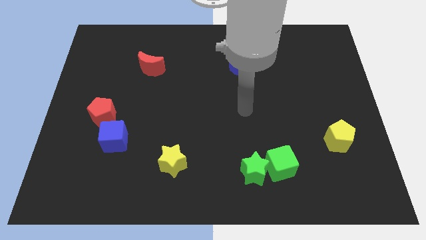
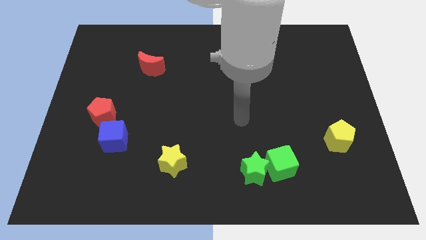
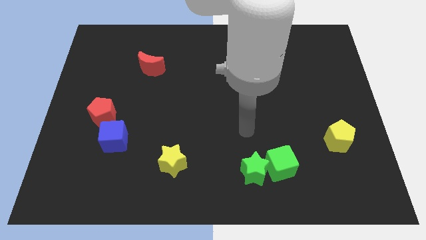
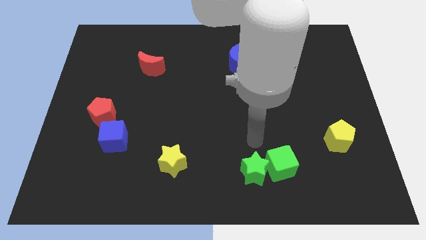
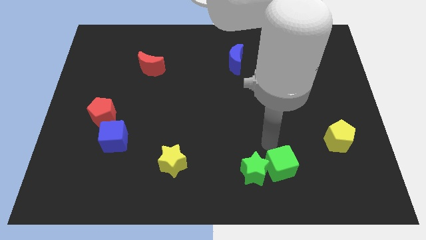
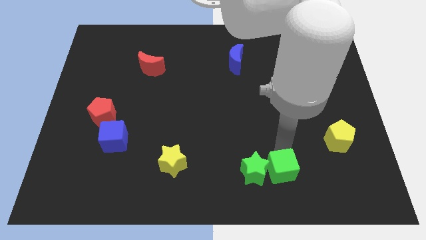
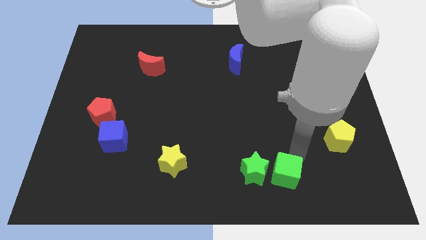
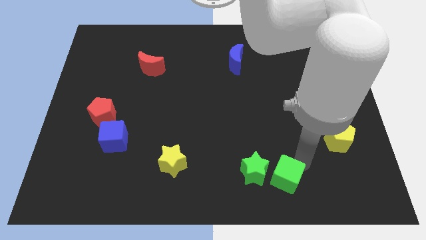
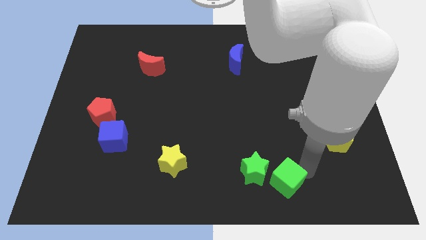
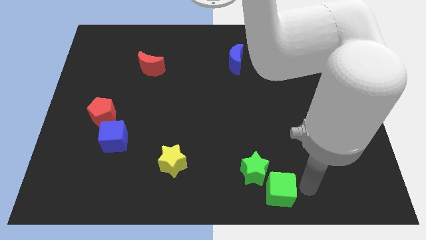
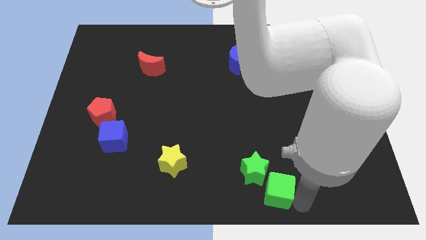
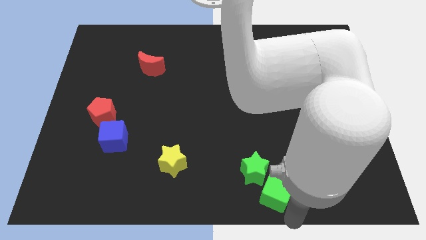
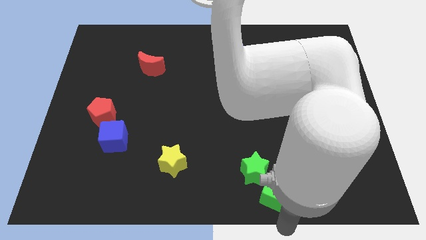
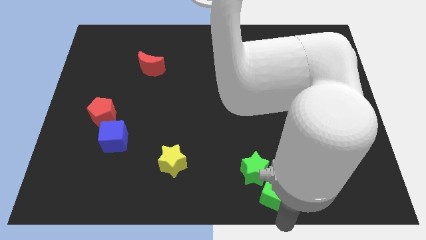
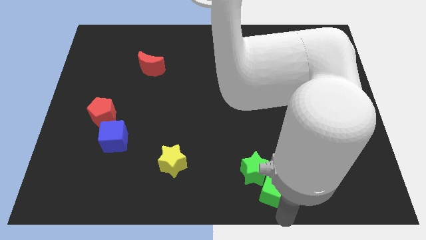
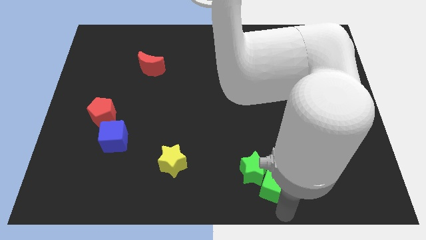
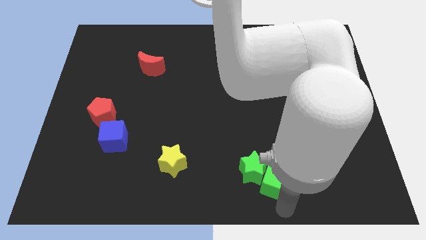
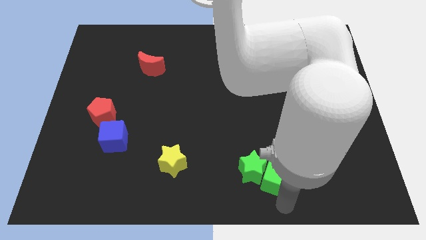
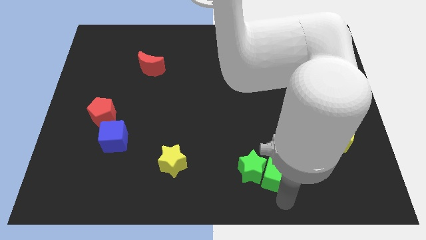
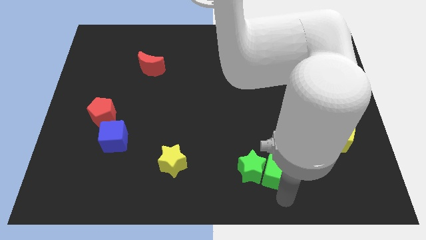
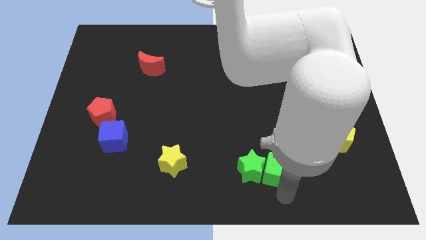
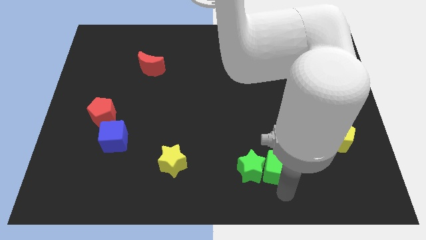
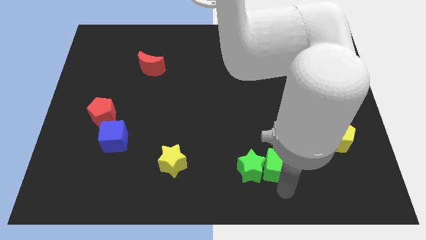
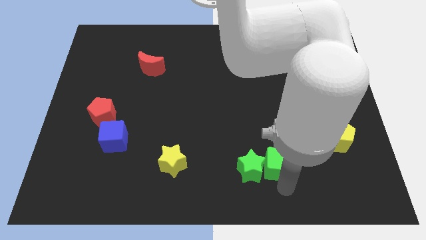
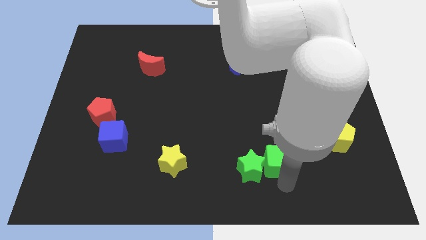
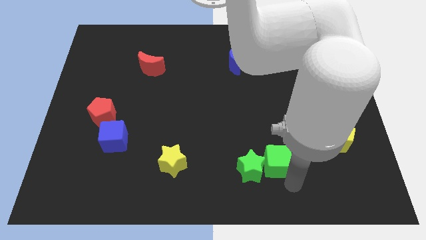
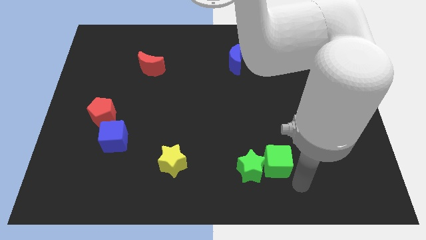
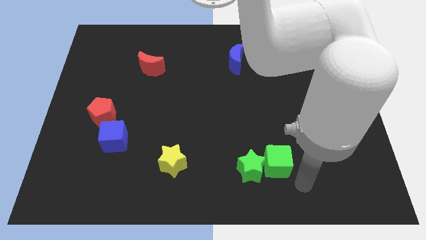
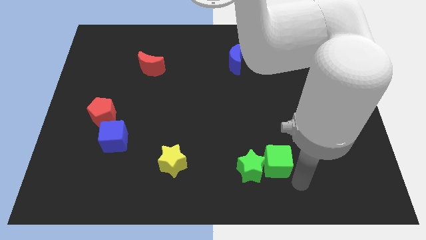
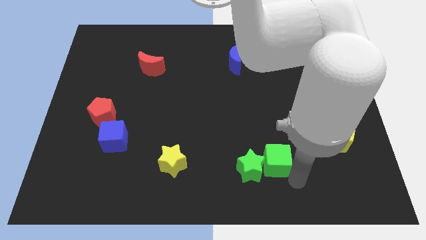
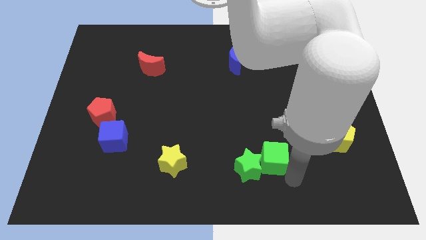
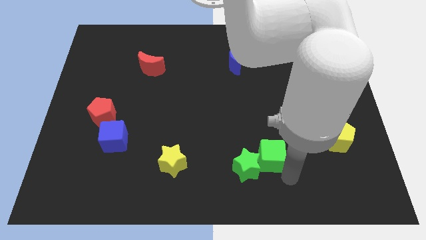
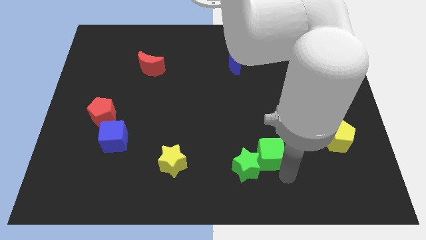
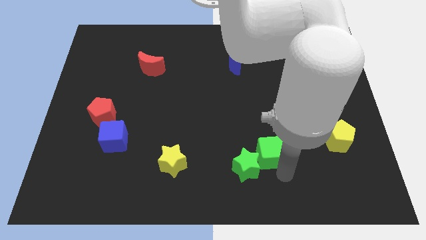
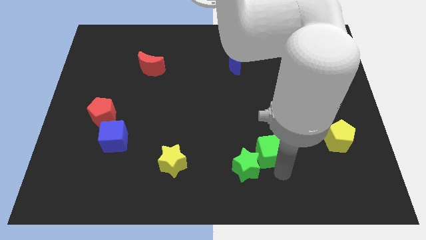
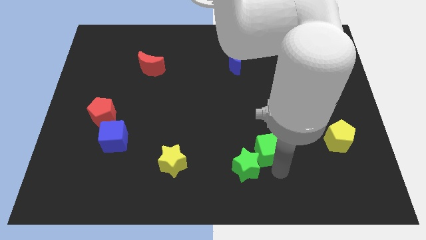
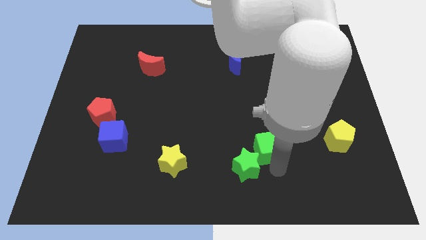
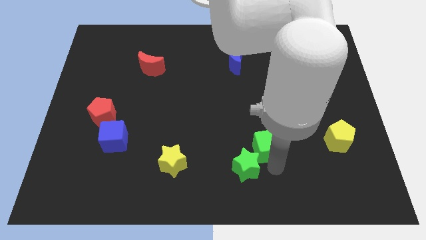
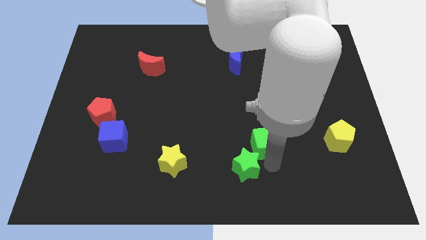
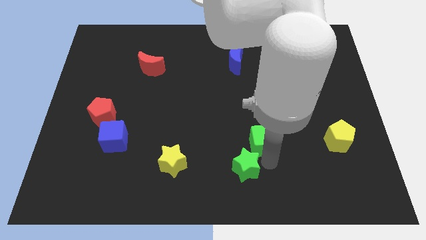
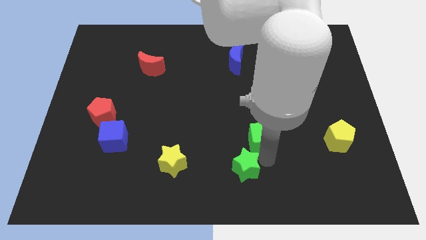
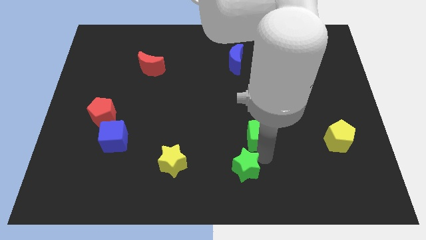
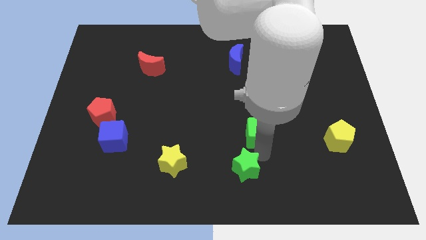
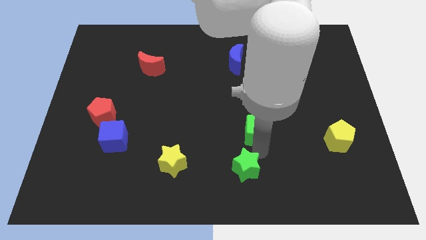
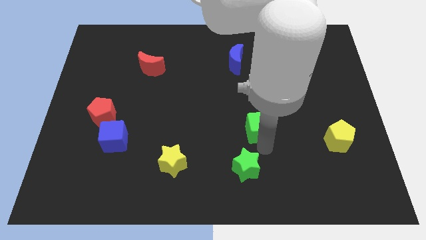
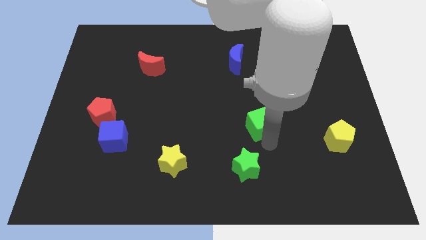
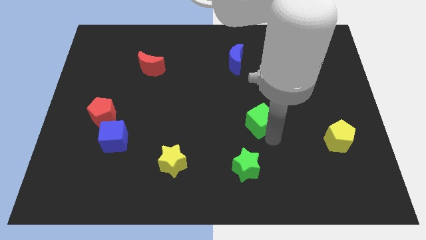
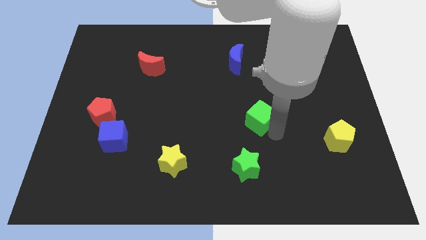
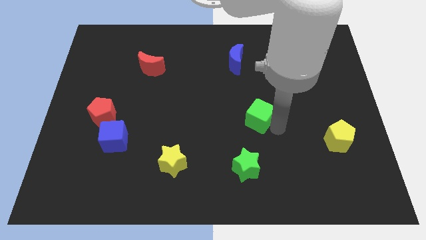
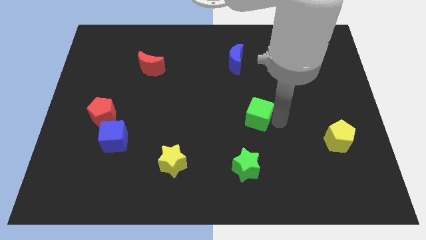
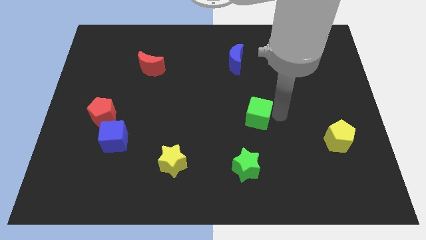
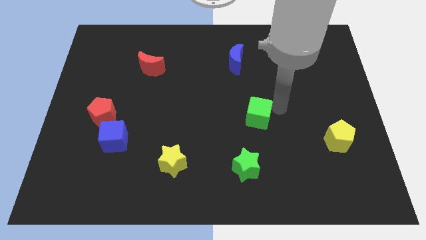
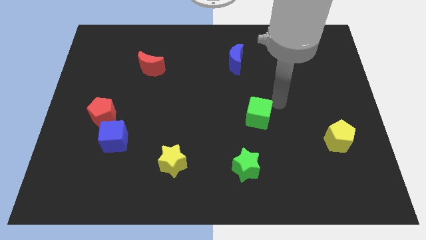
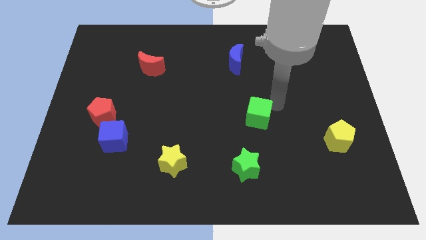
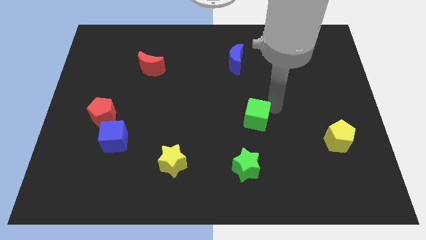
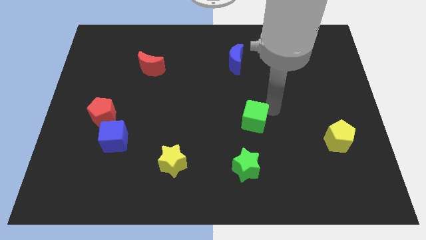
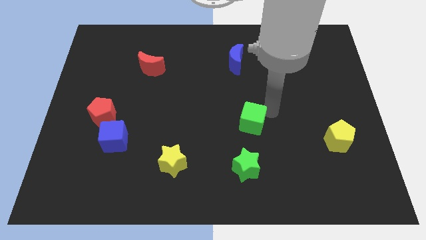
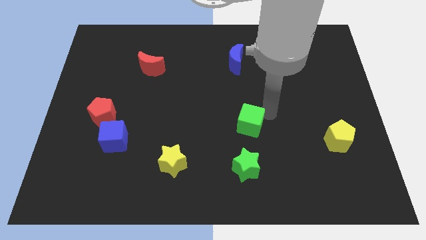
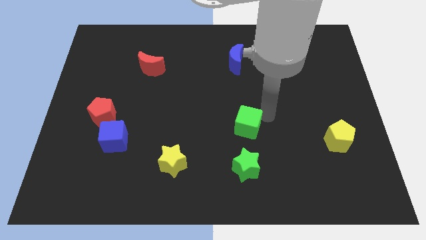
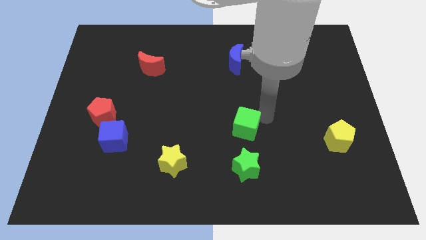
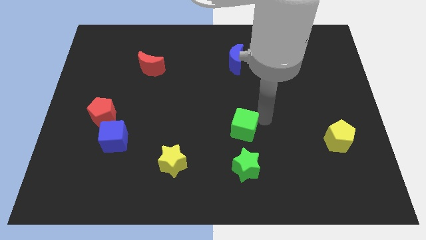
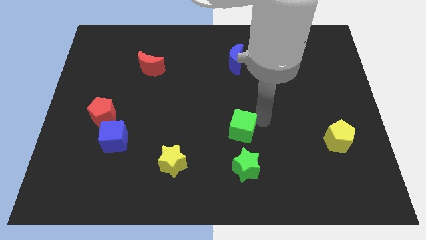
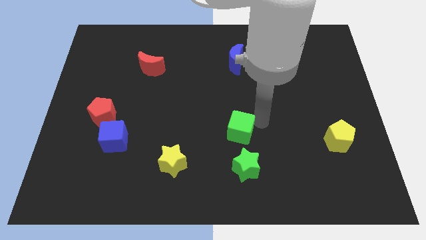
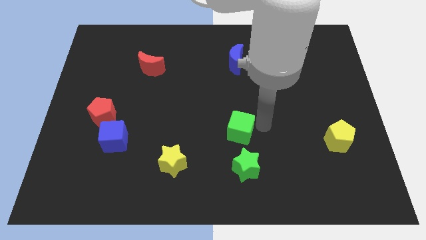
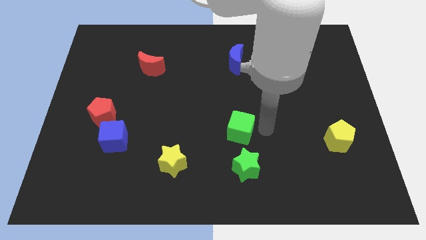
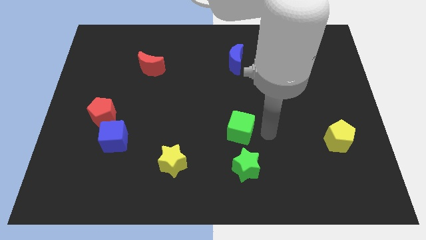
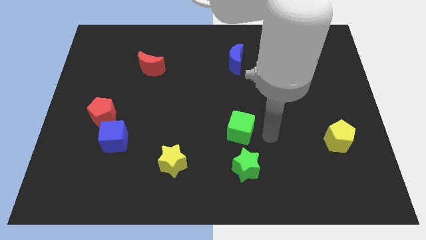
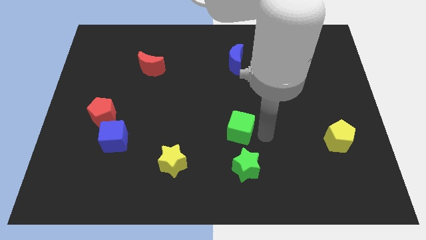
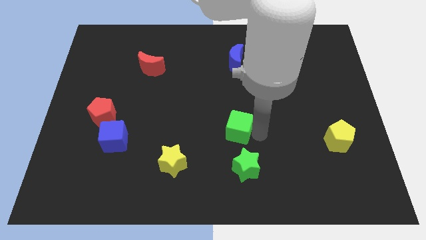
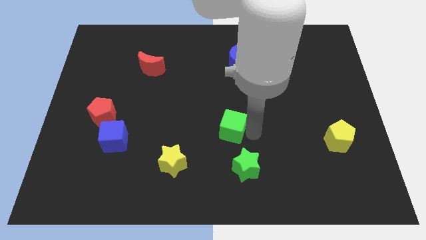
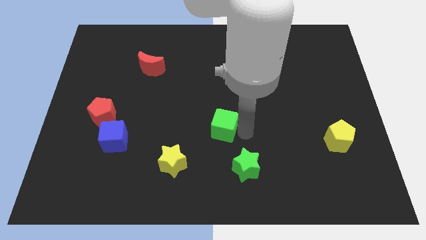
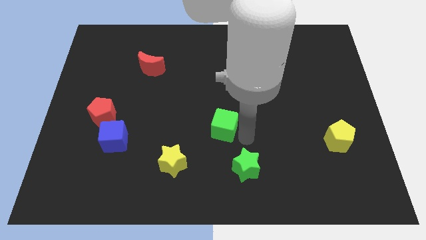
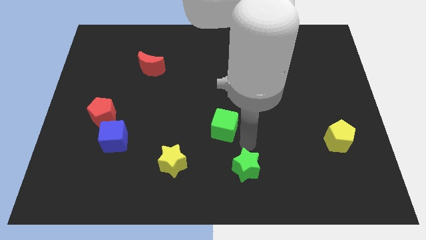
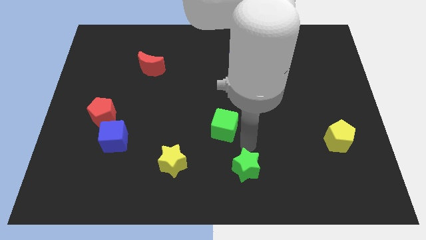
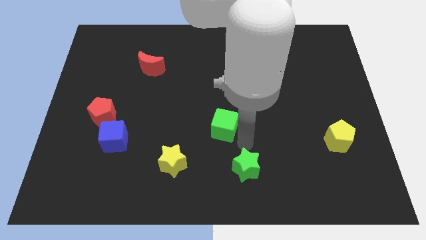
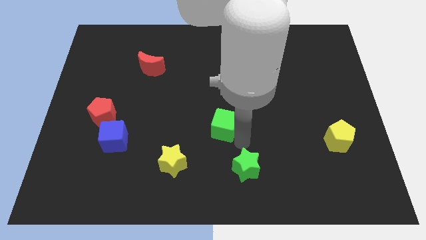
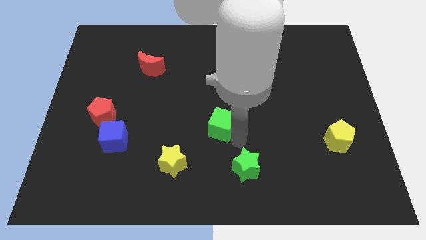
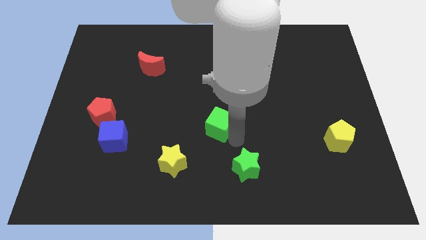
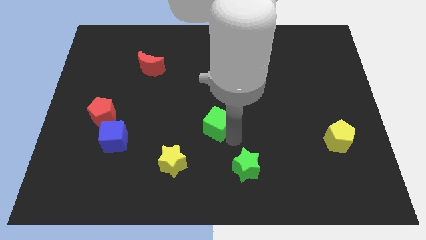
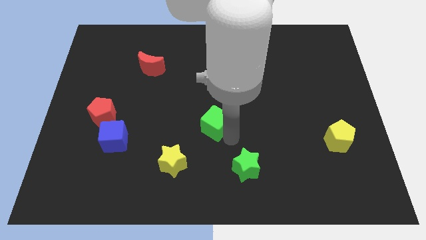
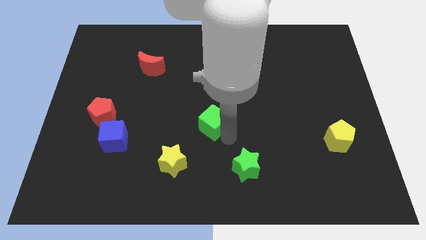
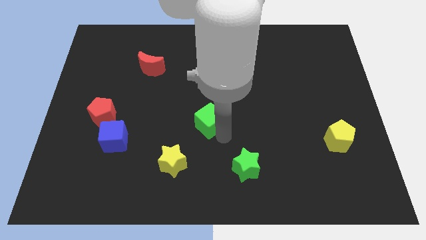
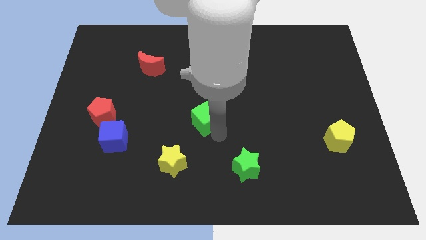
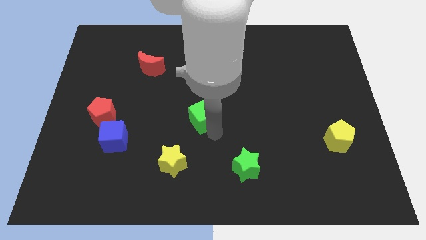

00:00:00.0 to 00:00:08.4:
push the green cube diagonally up and to the left
